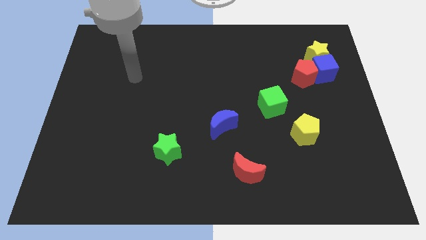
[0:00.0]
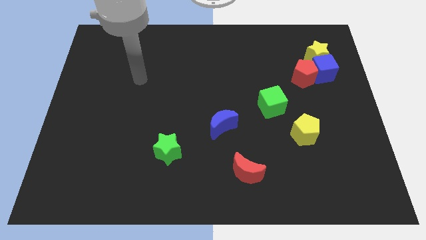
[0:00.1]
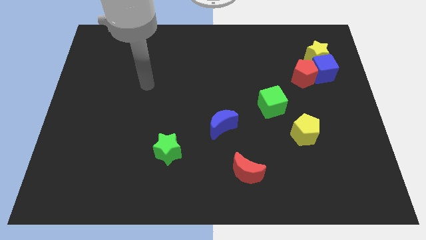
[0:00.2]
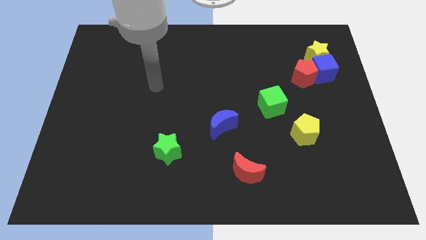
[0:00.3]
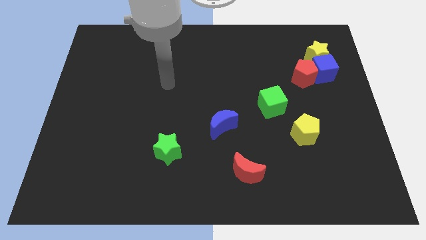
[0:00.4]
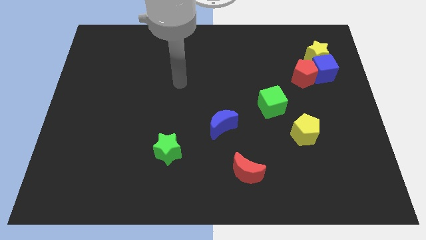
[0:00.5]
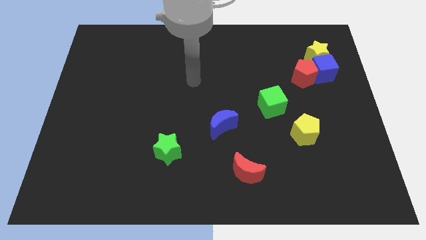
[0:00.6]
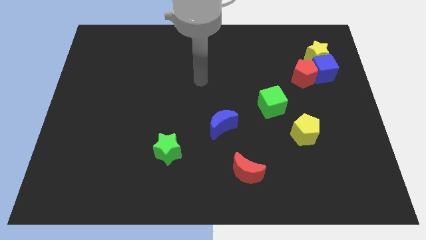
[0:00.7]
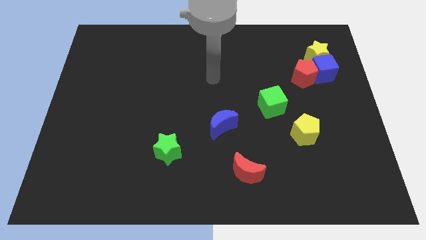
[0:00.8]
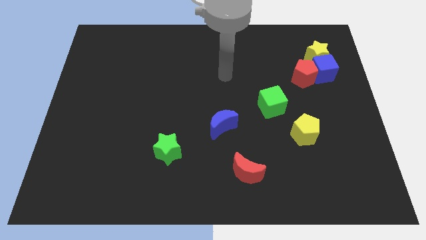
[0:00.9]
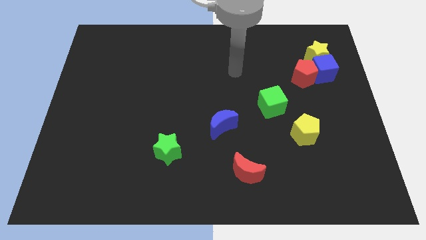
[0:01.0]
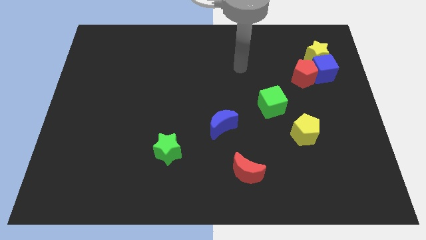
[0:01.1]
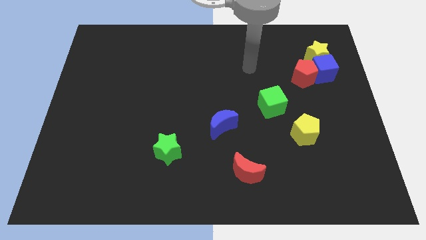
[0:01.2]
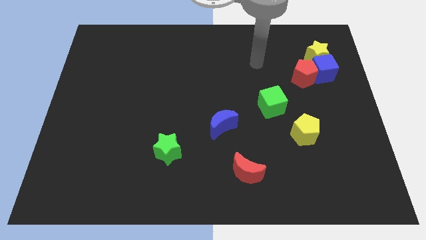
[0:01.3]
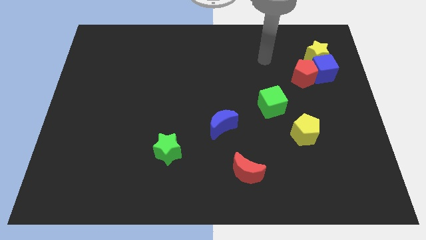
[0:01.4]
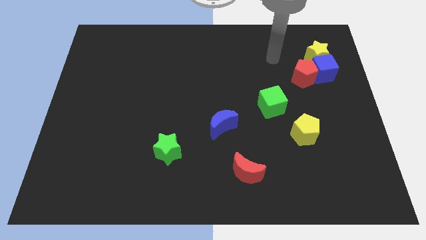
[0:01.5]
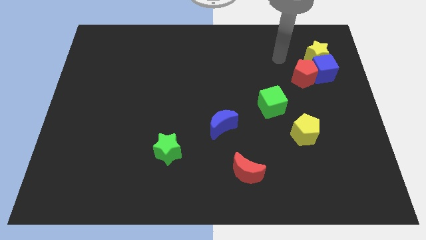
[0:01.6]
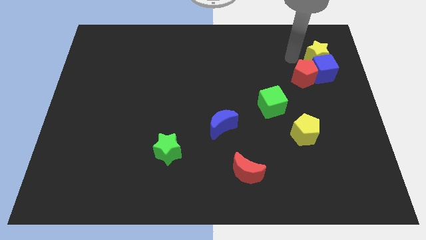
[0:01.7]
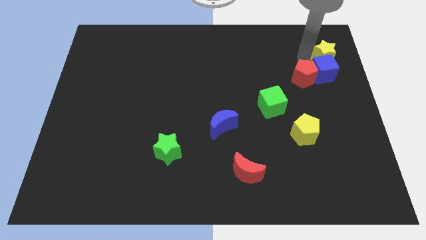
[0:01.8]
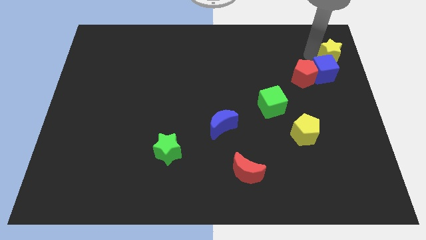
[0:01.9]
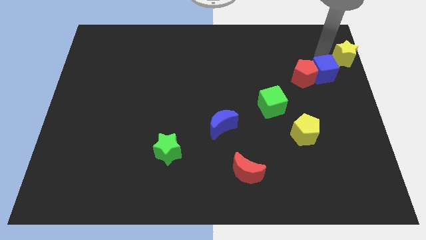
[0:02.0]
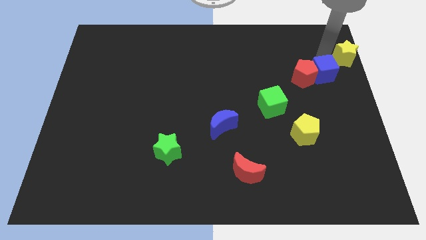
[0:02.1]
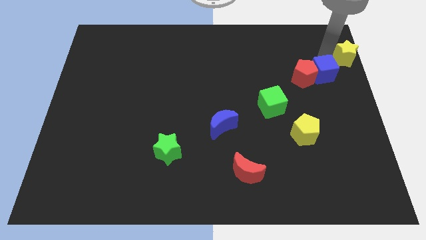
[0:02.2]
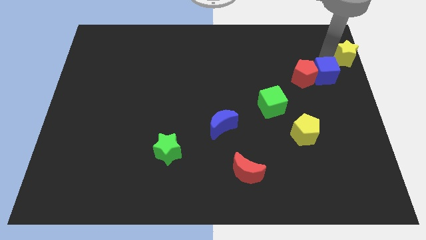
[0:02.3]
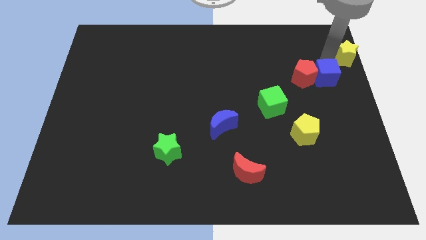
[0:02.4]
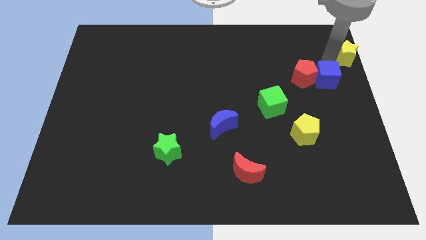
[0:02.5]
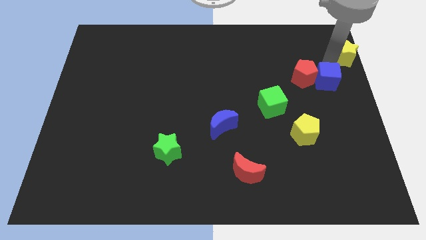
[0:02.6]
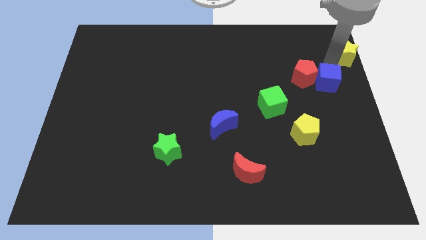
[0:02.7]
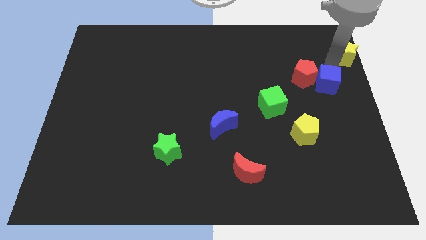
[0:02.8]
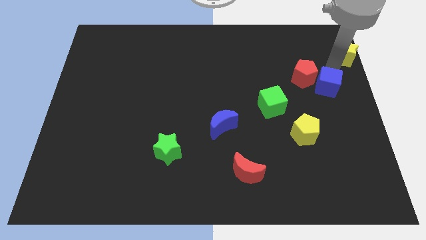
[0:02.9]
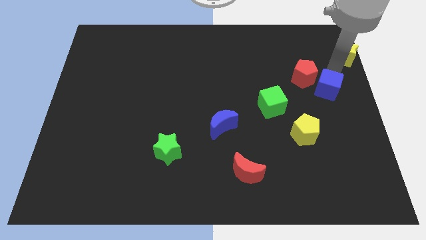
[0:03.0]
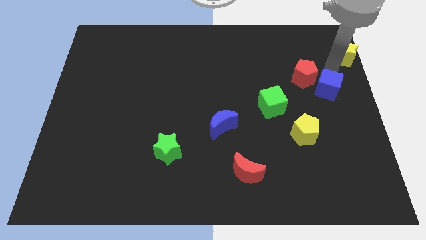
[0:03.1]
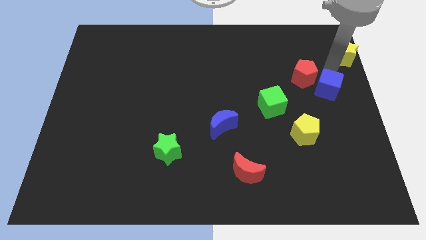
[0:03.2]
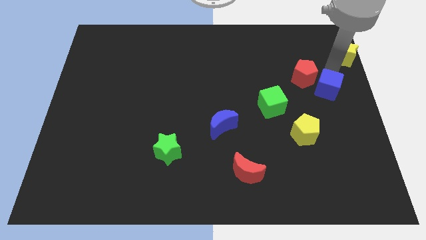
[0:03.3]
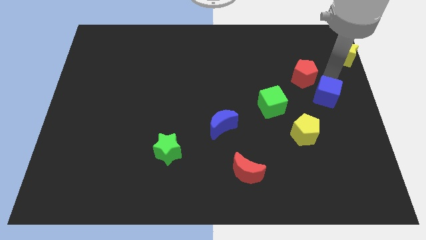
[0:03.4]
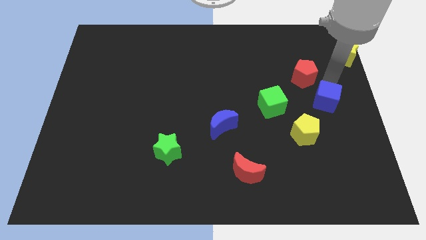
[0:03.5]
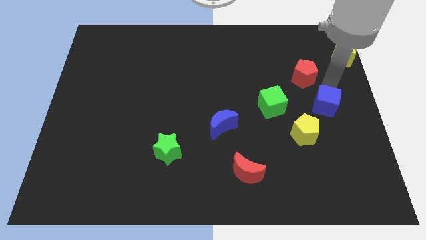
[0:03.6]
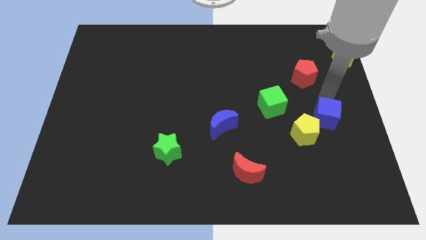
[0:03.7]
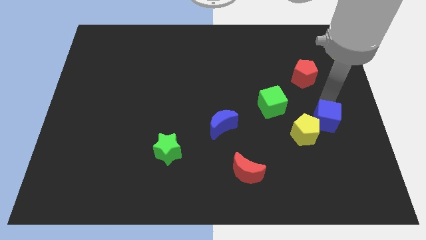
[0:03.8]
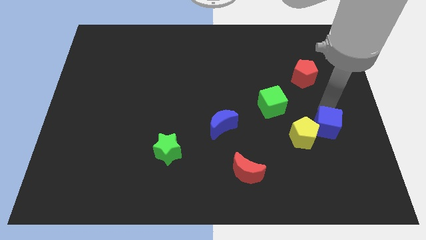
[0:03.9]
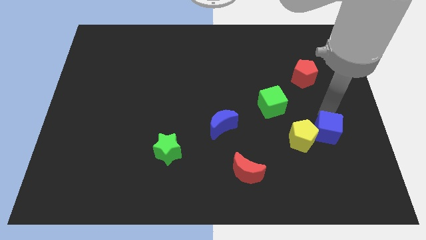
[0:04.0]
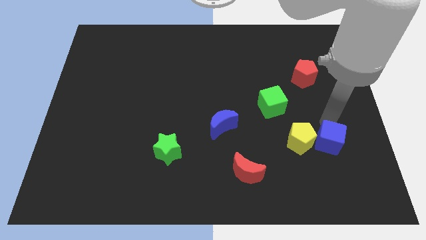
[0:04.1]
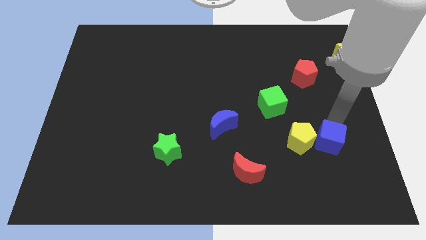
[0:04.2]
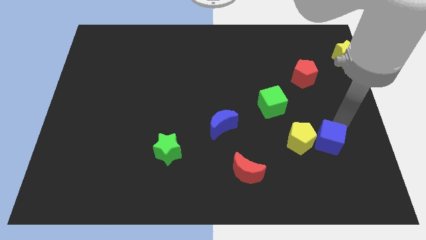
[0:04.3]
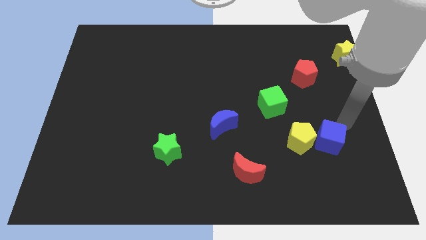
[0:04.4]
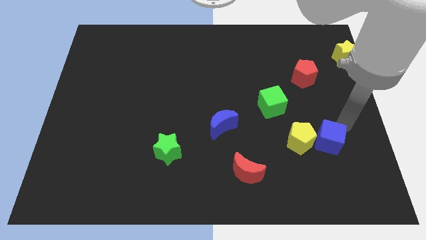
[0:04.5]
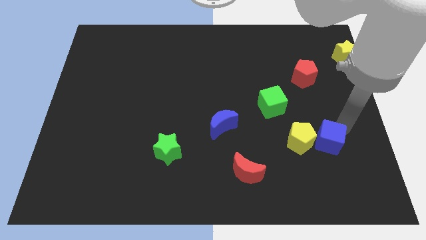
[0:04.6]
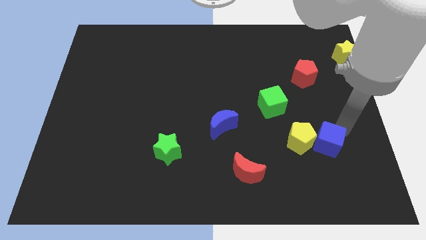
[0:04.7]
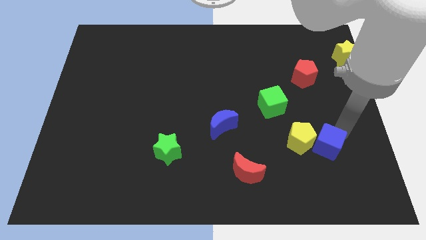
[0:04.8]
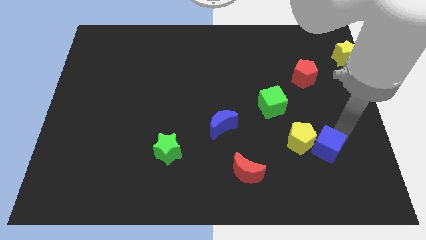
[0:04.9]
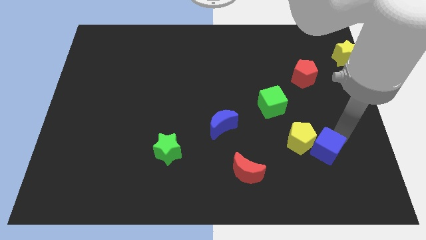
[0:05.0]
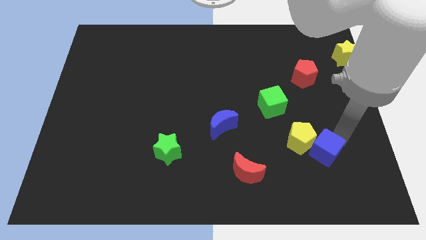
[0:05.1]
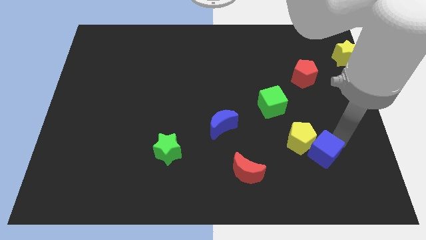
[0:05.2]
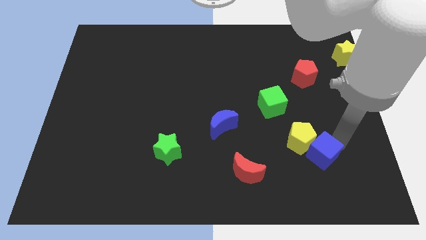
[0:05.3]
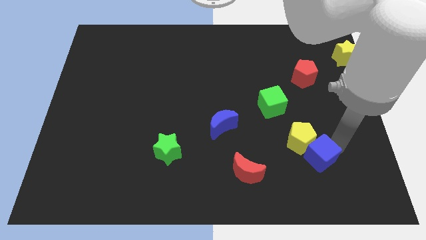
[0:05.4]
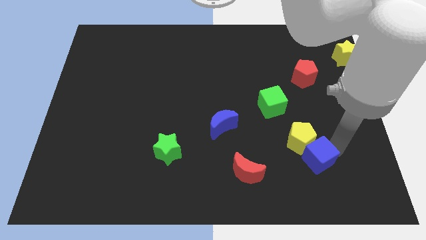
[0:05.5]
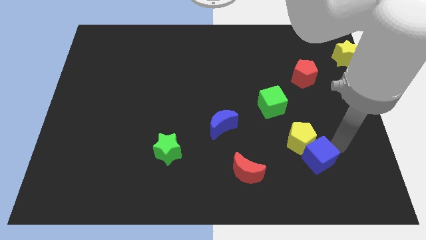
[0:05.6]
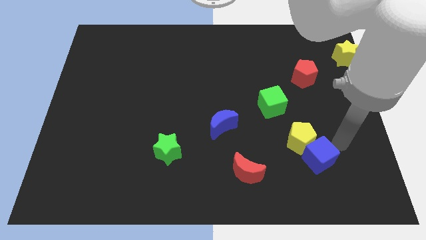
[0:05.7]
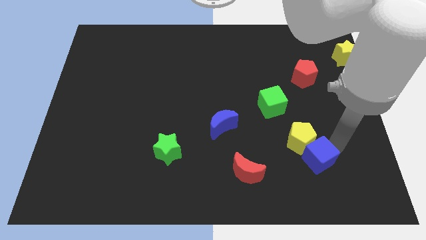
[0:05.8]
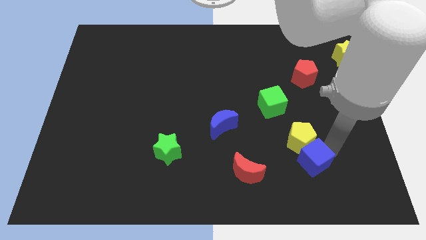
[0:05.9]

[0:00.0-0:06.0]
slide the blue cube right of the red moon

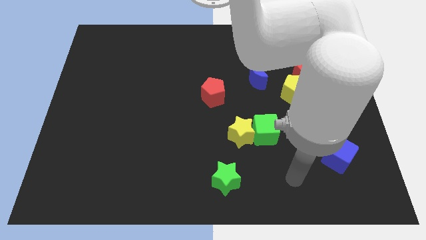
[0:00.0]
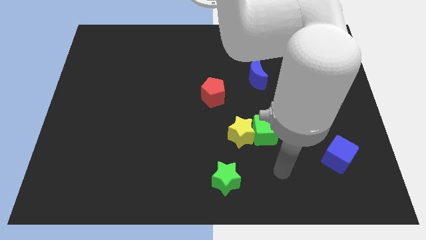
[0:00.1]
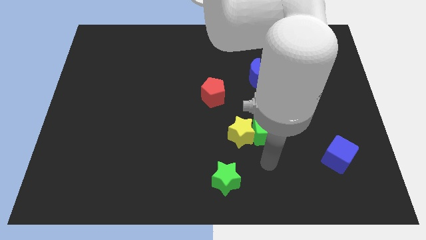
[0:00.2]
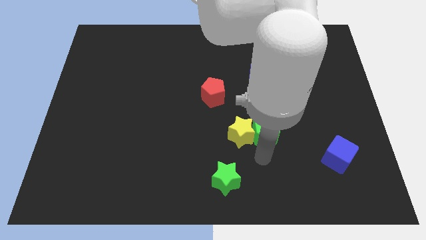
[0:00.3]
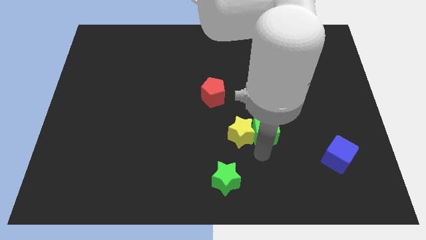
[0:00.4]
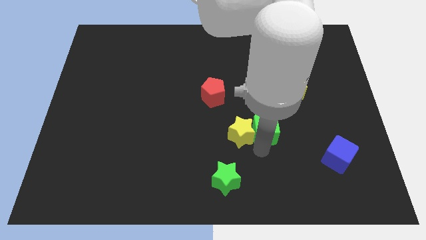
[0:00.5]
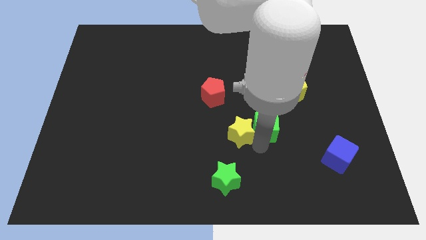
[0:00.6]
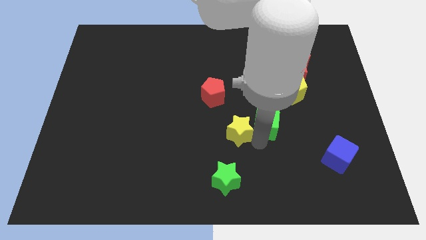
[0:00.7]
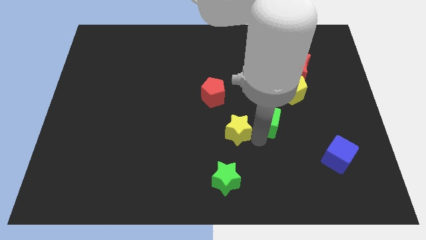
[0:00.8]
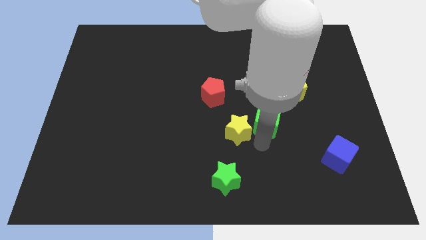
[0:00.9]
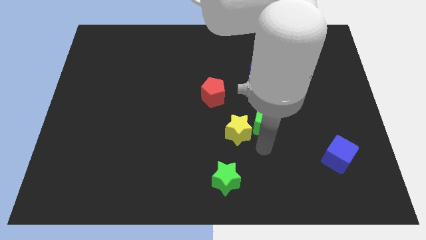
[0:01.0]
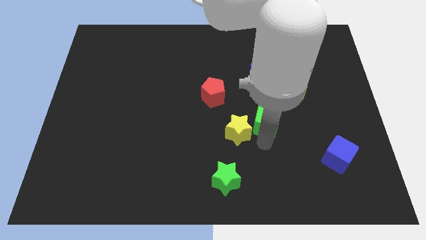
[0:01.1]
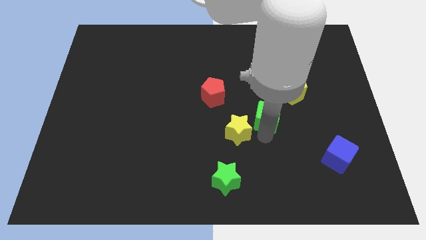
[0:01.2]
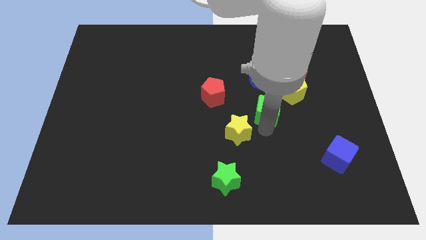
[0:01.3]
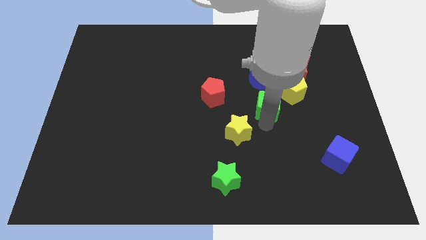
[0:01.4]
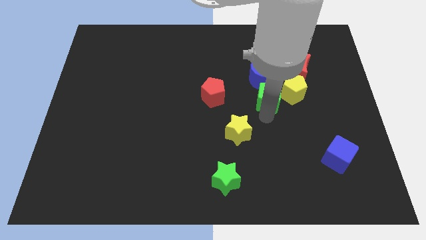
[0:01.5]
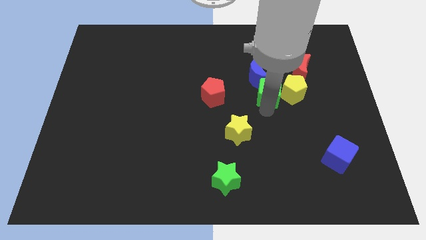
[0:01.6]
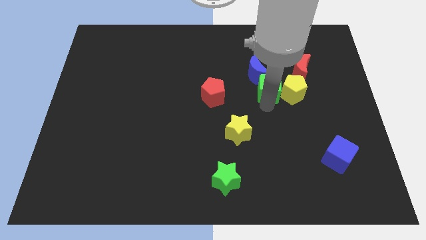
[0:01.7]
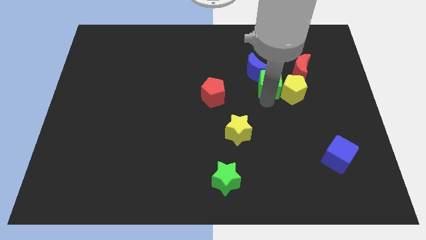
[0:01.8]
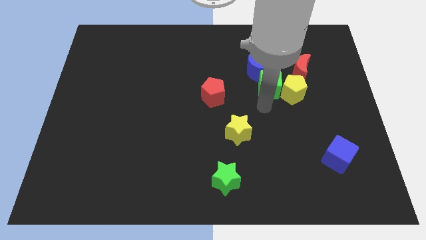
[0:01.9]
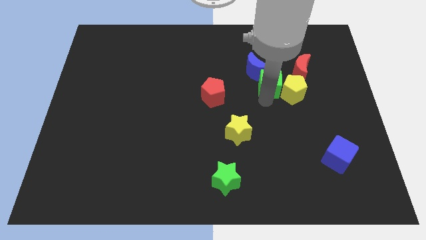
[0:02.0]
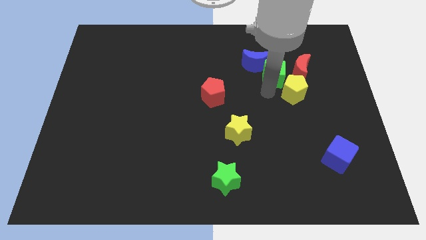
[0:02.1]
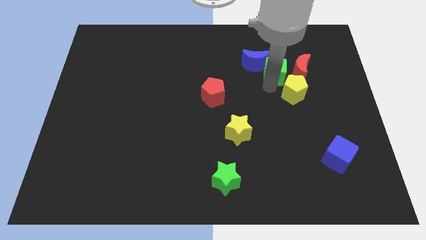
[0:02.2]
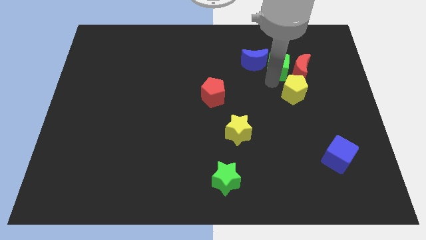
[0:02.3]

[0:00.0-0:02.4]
slide the green cube diagonally up and to the left of the red moon
